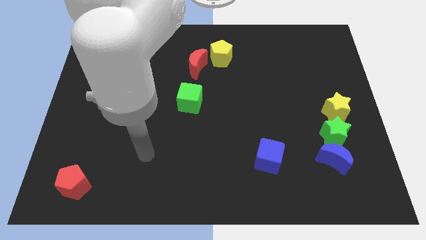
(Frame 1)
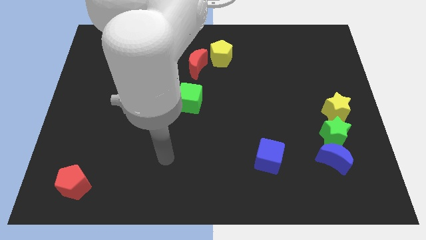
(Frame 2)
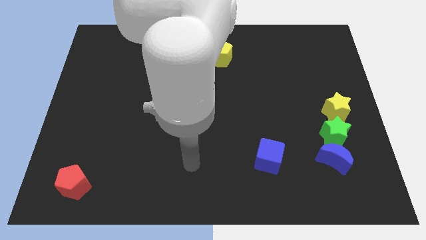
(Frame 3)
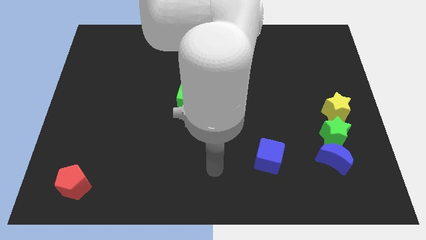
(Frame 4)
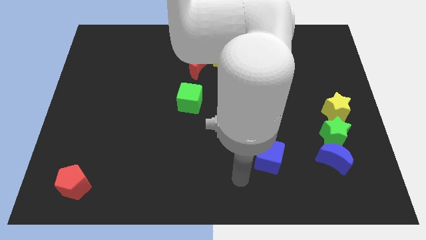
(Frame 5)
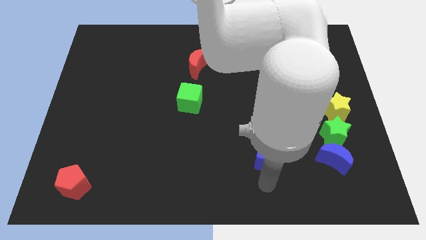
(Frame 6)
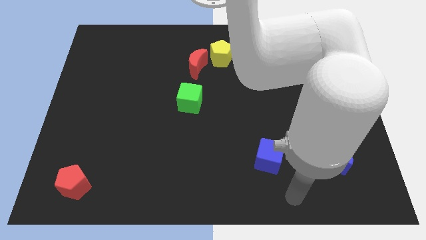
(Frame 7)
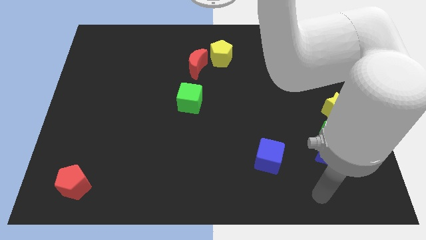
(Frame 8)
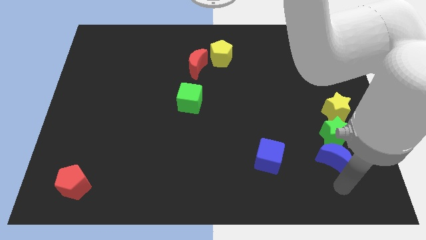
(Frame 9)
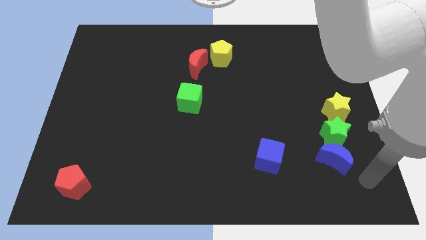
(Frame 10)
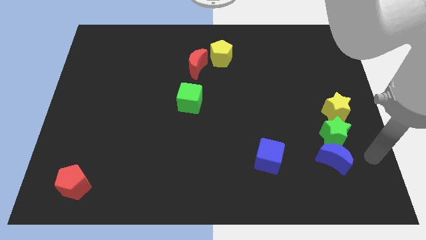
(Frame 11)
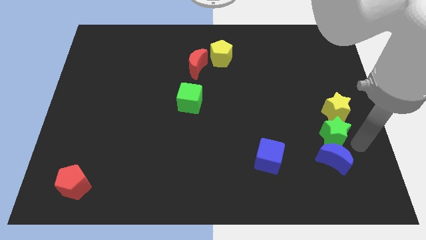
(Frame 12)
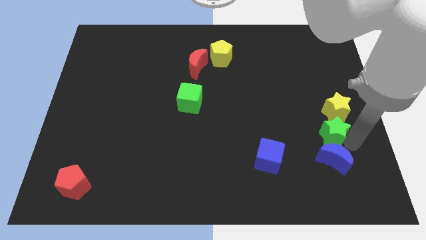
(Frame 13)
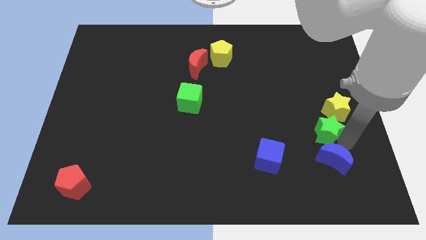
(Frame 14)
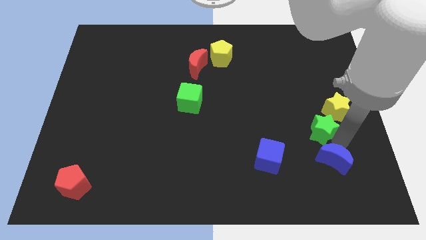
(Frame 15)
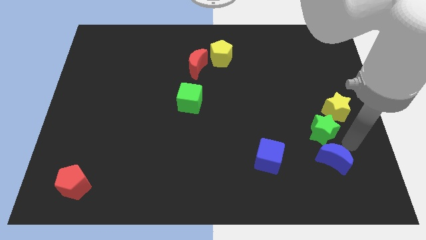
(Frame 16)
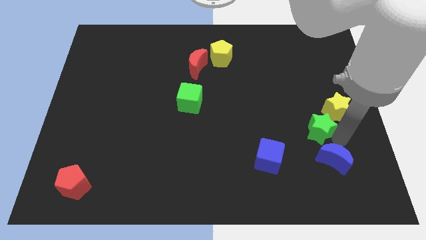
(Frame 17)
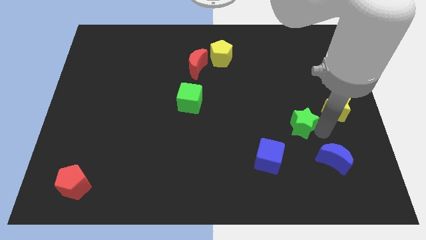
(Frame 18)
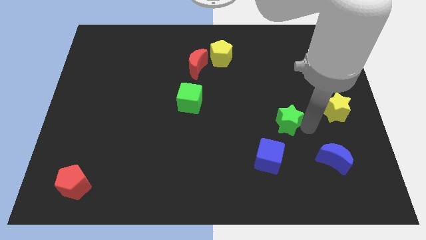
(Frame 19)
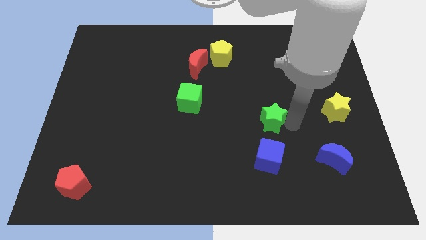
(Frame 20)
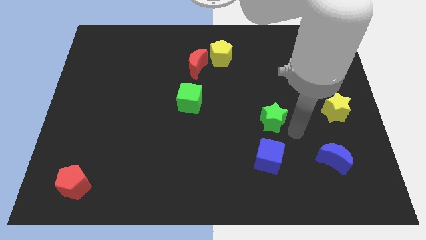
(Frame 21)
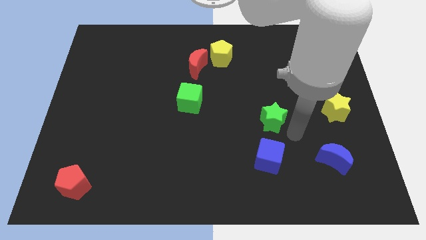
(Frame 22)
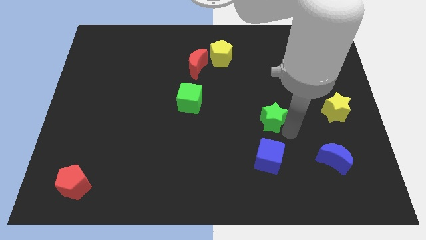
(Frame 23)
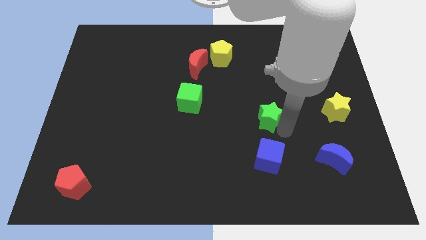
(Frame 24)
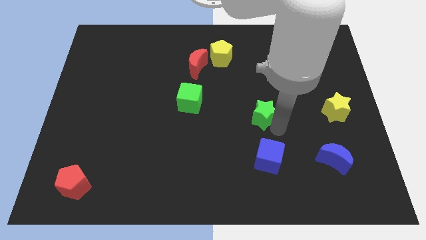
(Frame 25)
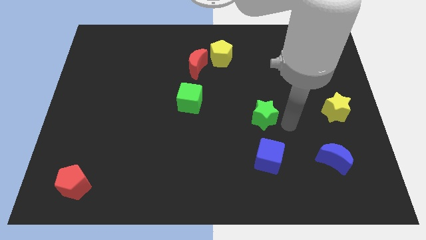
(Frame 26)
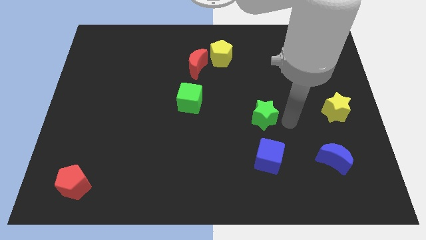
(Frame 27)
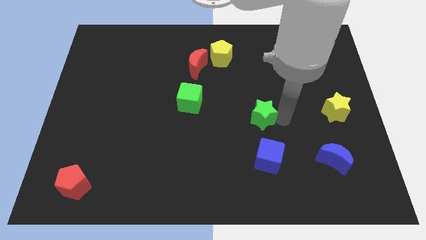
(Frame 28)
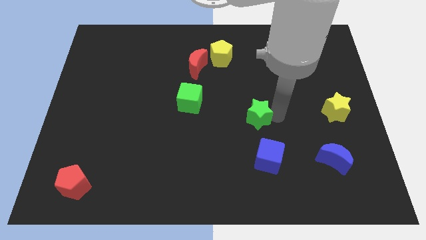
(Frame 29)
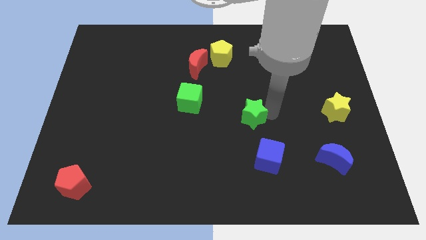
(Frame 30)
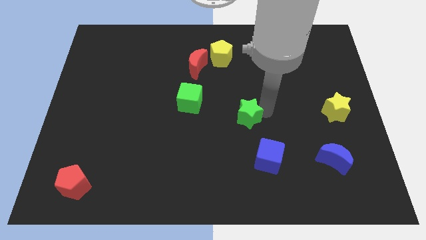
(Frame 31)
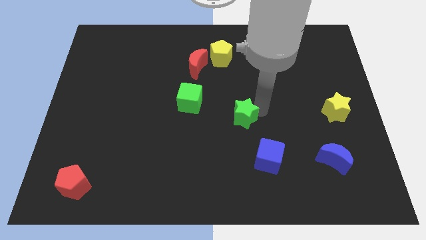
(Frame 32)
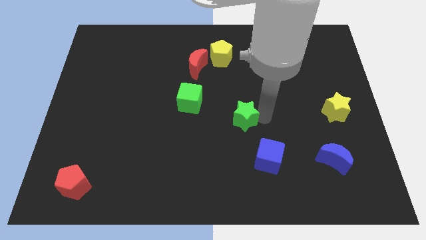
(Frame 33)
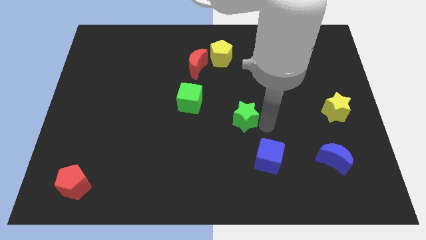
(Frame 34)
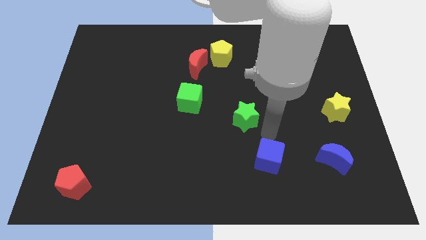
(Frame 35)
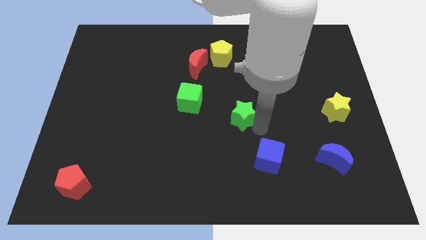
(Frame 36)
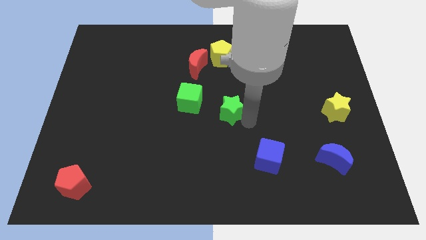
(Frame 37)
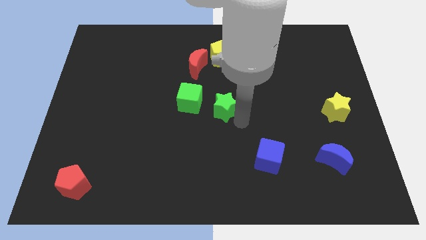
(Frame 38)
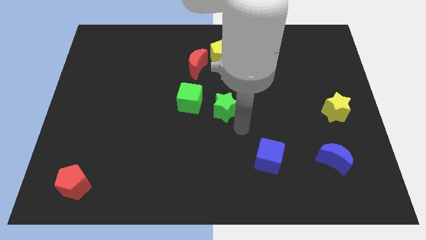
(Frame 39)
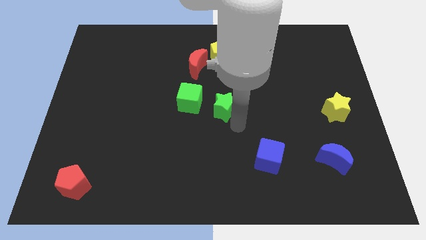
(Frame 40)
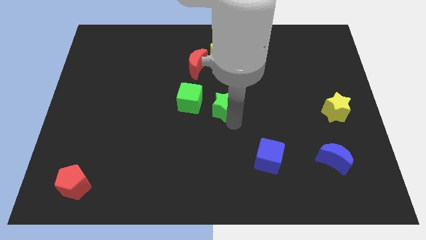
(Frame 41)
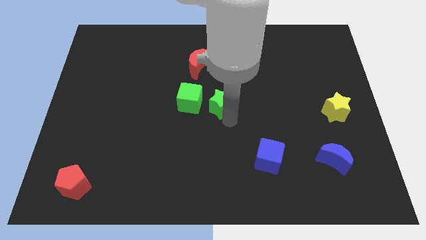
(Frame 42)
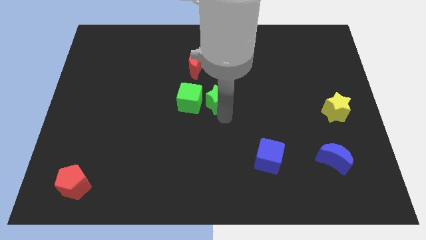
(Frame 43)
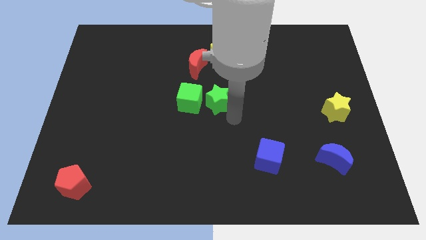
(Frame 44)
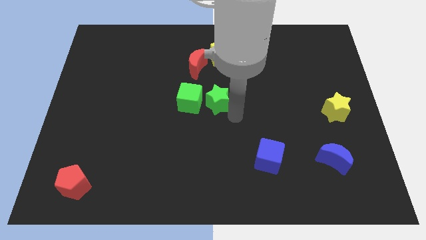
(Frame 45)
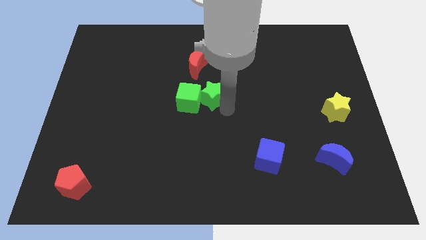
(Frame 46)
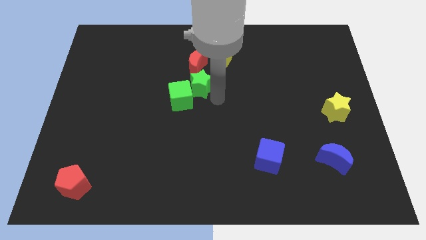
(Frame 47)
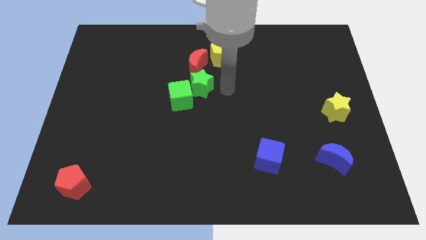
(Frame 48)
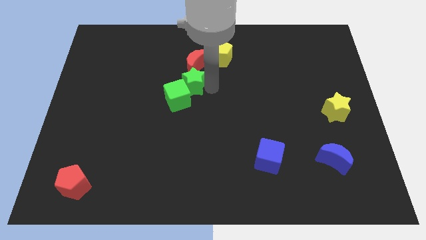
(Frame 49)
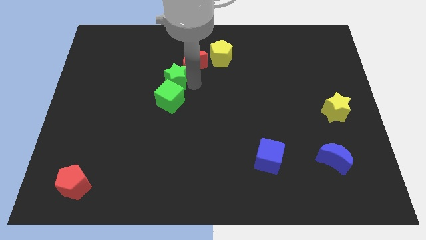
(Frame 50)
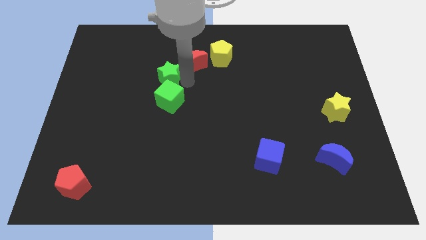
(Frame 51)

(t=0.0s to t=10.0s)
push the green star to the top left of the green cube

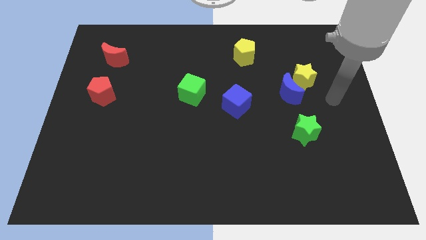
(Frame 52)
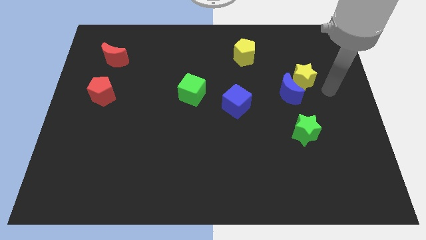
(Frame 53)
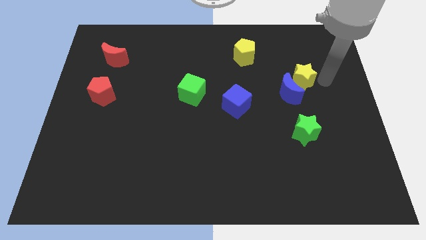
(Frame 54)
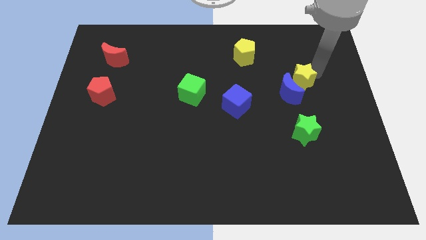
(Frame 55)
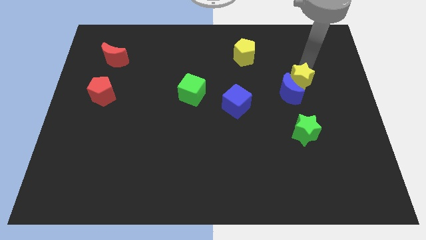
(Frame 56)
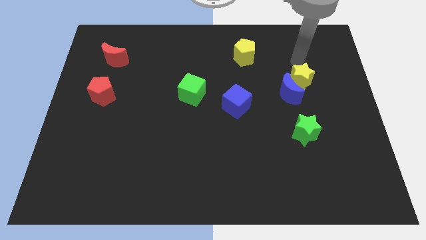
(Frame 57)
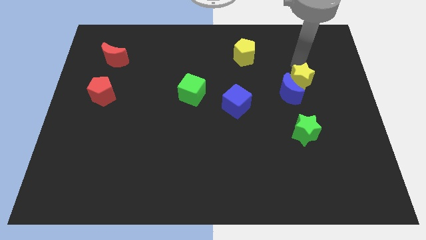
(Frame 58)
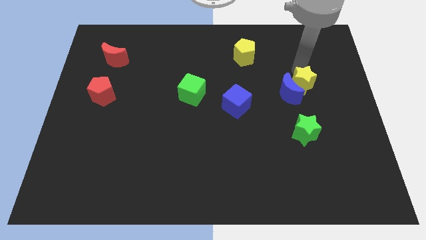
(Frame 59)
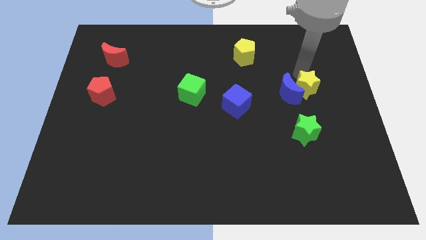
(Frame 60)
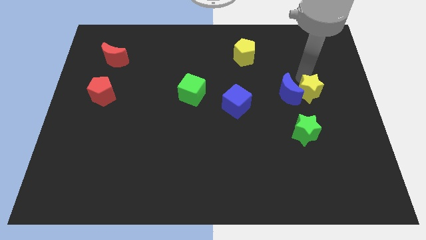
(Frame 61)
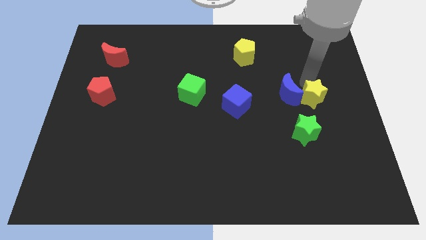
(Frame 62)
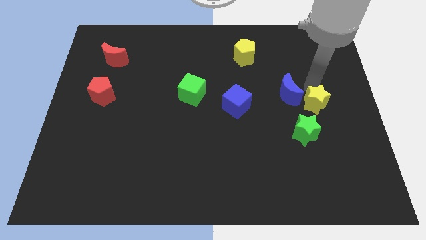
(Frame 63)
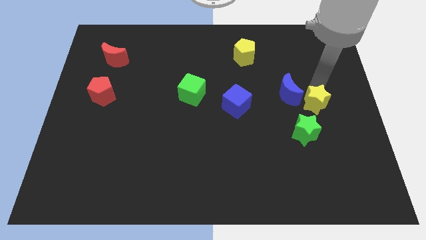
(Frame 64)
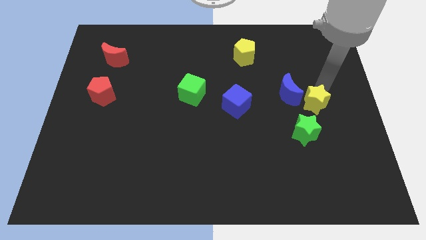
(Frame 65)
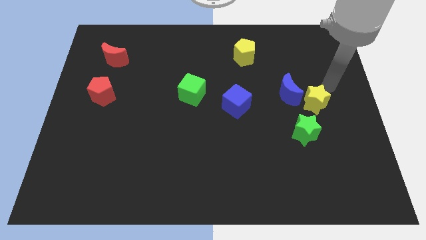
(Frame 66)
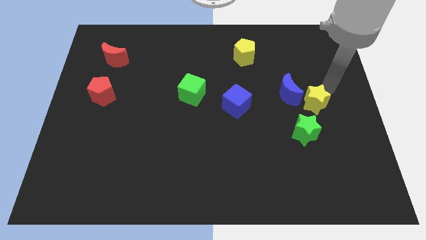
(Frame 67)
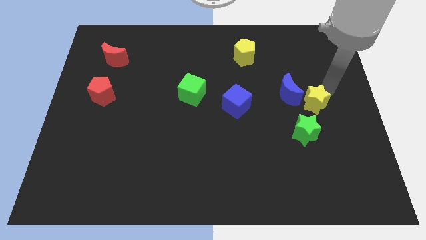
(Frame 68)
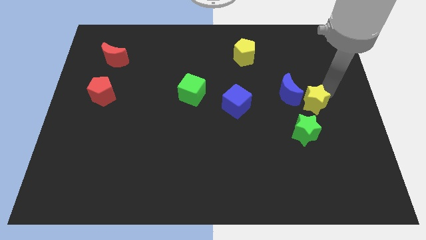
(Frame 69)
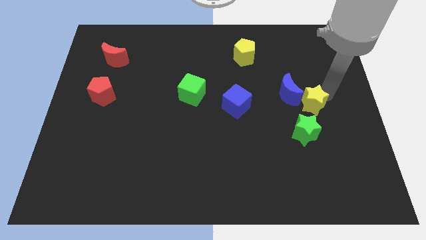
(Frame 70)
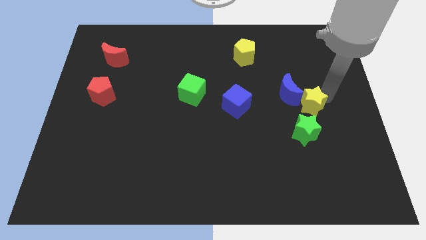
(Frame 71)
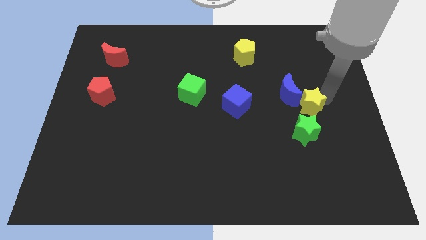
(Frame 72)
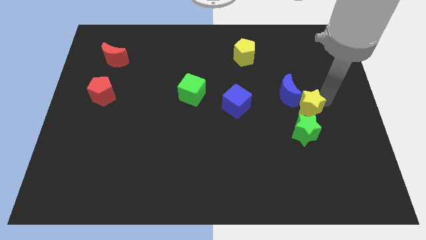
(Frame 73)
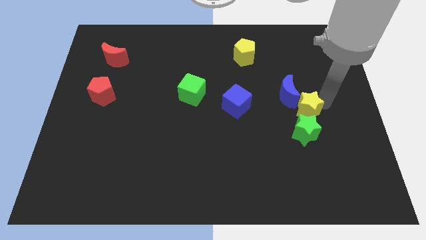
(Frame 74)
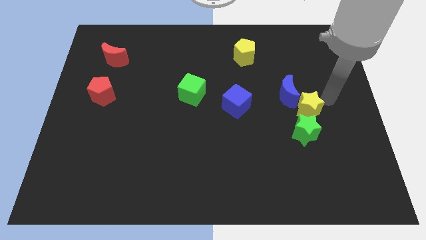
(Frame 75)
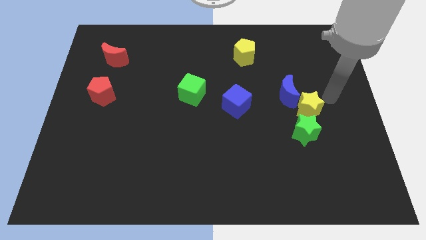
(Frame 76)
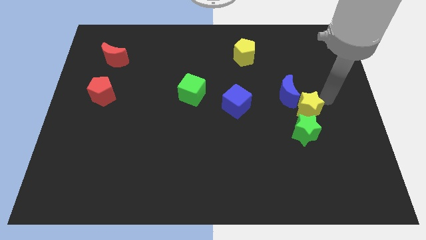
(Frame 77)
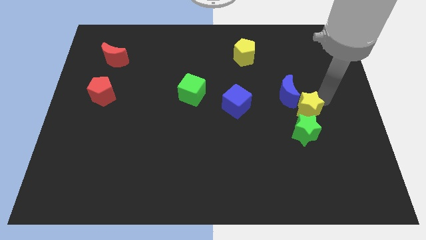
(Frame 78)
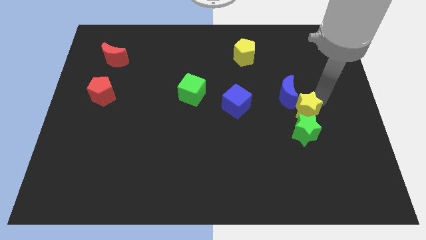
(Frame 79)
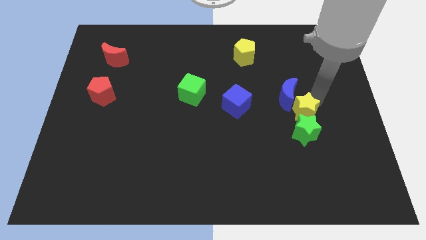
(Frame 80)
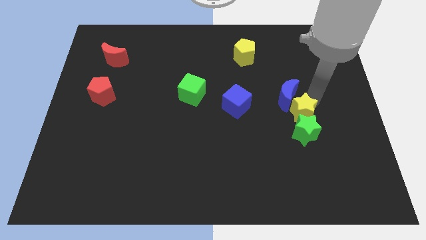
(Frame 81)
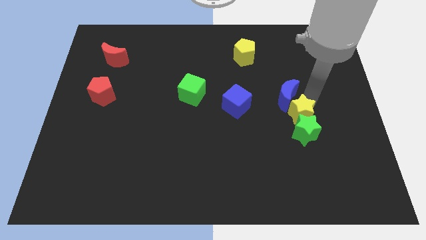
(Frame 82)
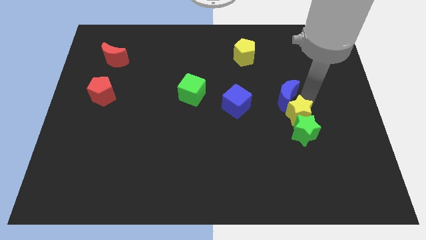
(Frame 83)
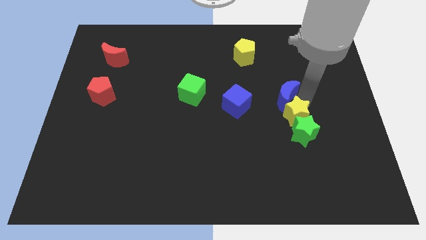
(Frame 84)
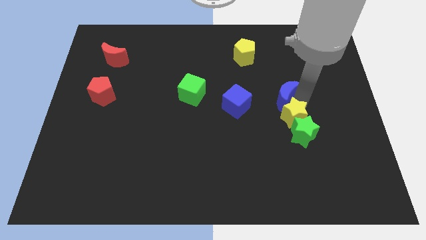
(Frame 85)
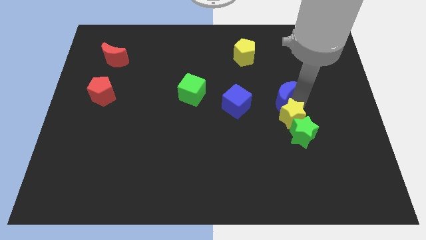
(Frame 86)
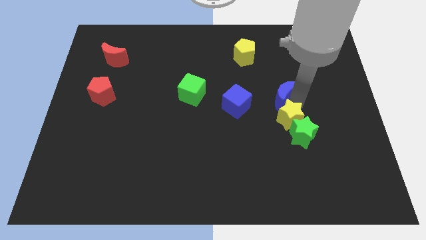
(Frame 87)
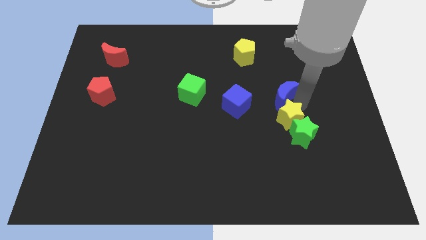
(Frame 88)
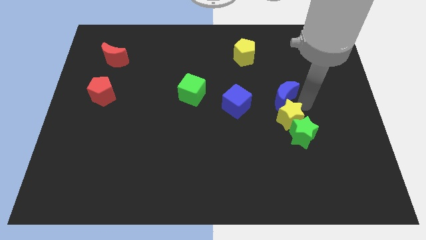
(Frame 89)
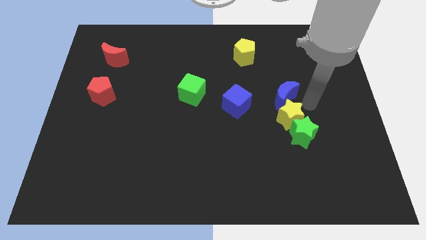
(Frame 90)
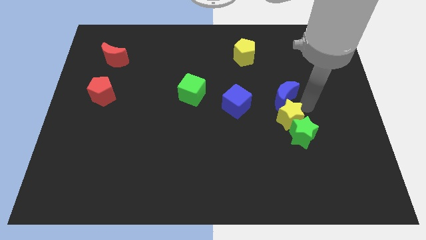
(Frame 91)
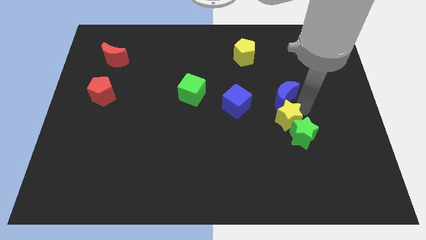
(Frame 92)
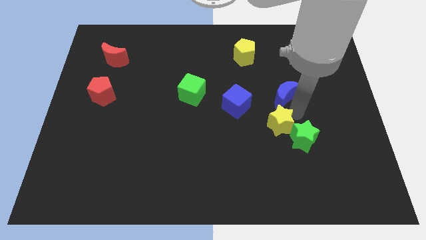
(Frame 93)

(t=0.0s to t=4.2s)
push the yellow star just left of the green star
